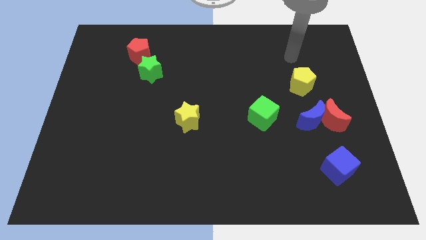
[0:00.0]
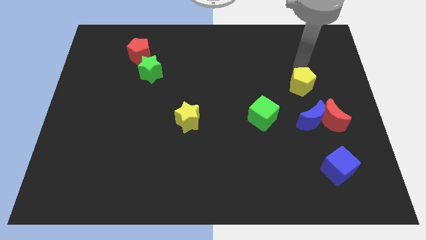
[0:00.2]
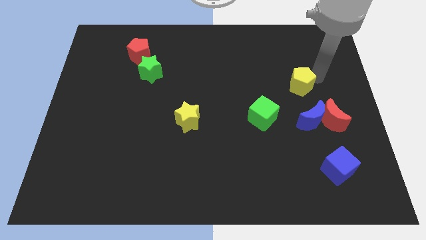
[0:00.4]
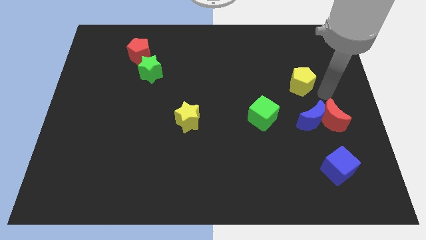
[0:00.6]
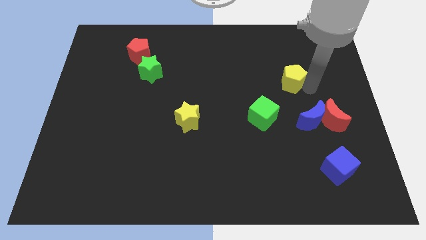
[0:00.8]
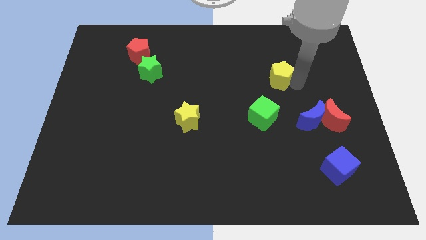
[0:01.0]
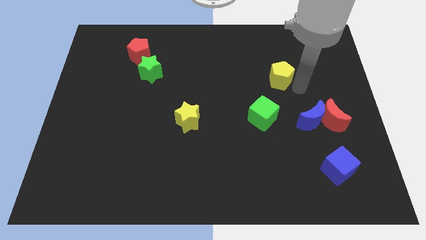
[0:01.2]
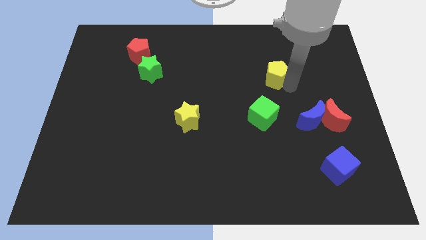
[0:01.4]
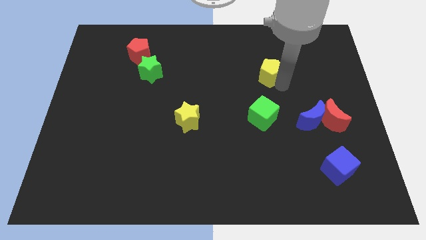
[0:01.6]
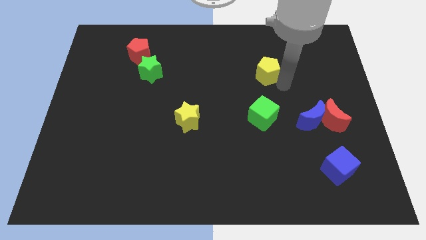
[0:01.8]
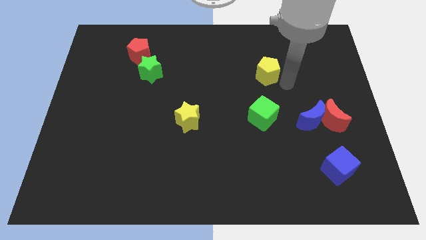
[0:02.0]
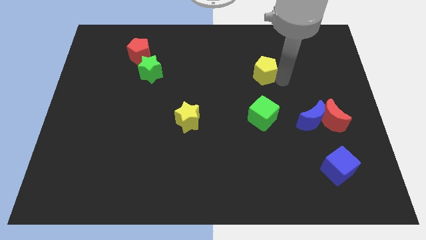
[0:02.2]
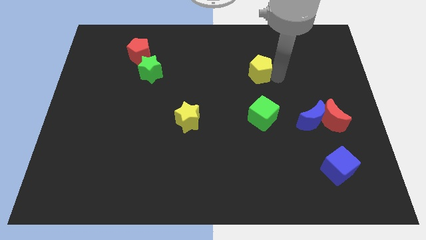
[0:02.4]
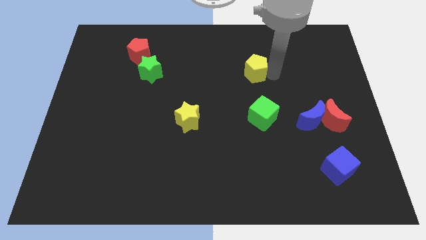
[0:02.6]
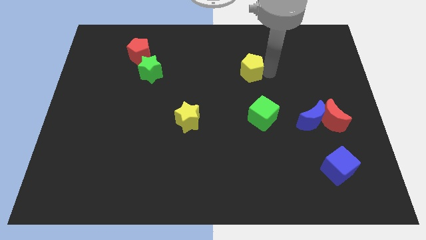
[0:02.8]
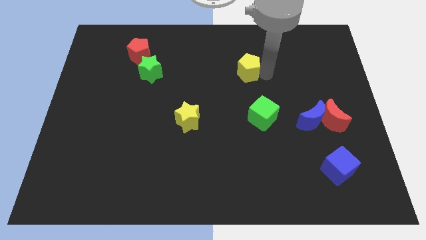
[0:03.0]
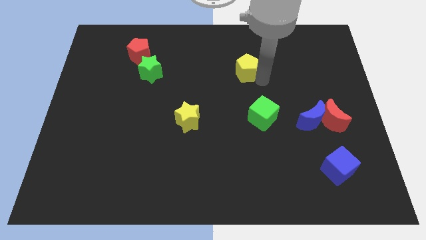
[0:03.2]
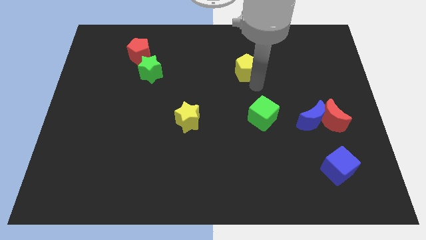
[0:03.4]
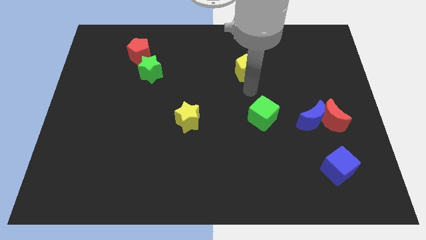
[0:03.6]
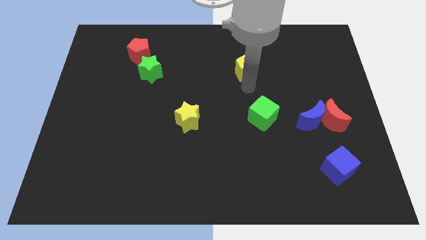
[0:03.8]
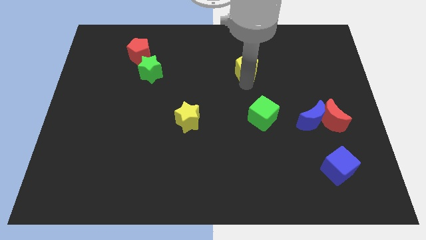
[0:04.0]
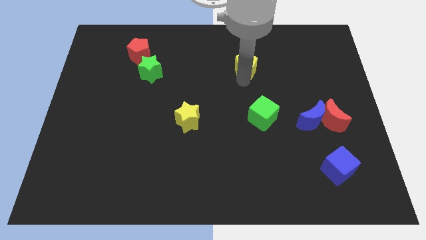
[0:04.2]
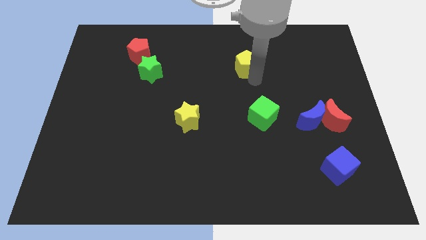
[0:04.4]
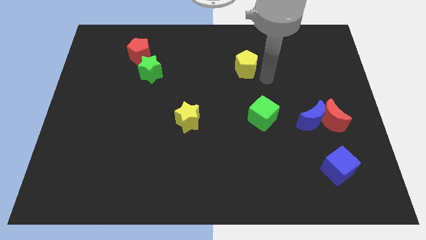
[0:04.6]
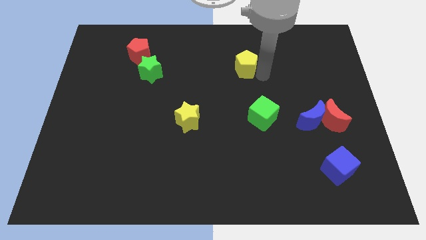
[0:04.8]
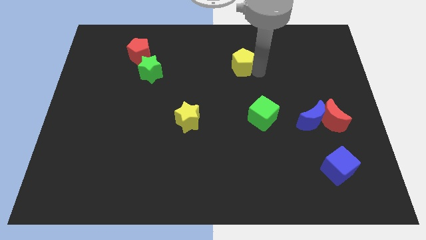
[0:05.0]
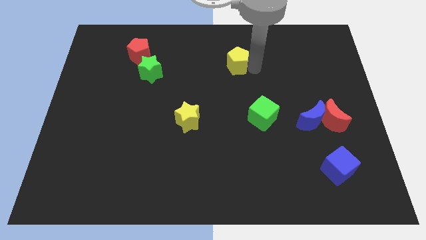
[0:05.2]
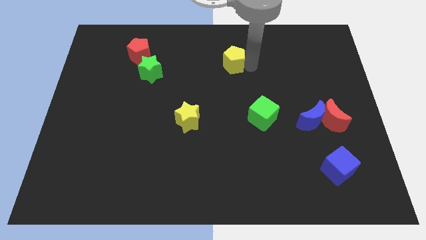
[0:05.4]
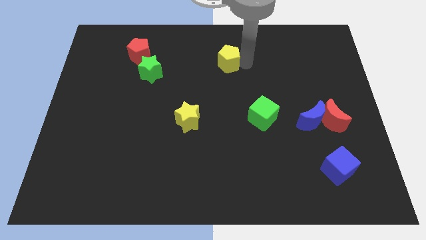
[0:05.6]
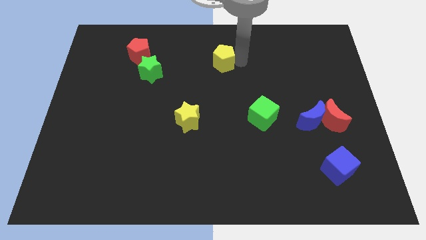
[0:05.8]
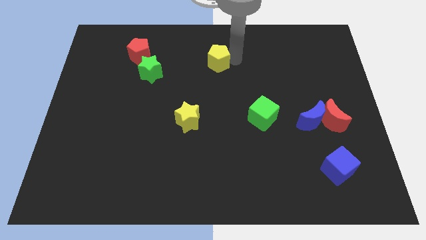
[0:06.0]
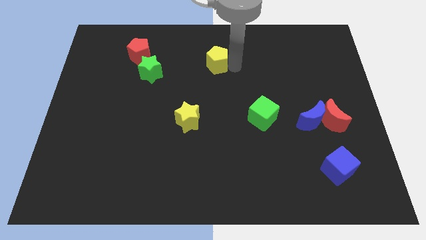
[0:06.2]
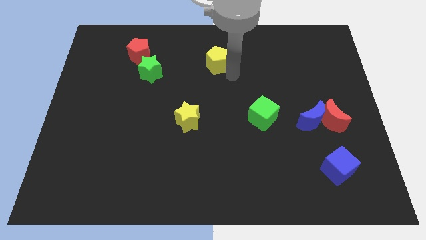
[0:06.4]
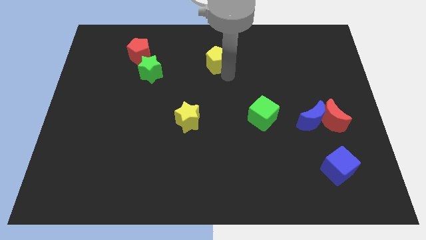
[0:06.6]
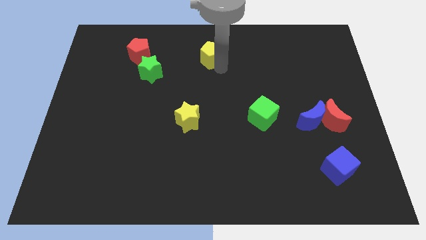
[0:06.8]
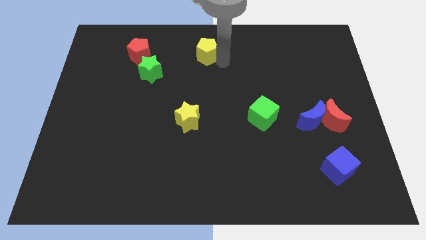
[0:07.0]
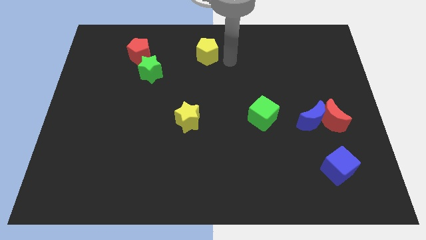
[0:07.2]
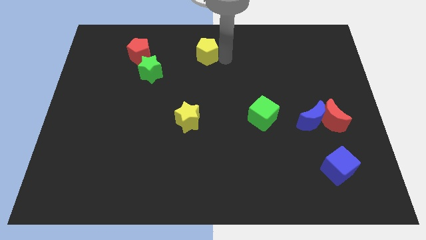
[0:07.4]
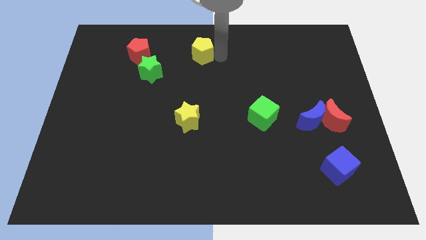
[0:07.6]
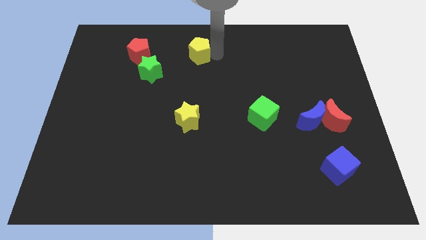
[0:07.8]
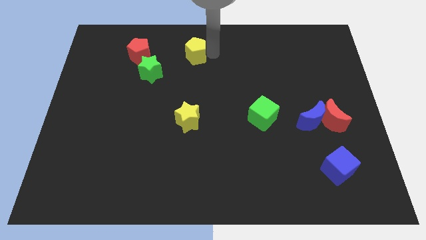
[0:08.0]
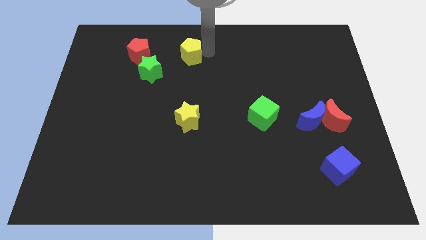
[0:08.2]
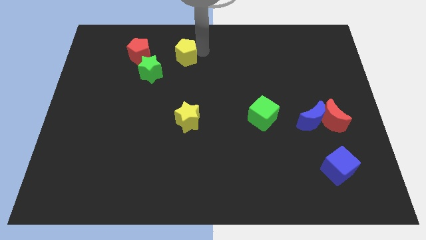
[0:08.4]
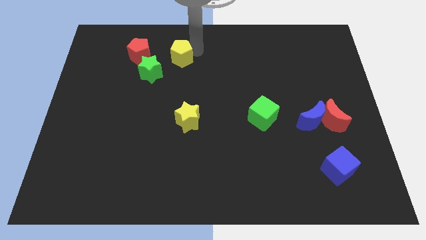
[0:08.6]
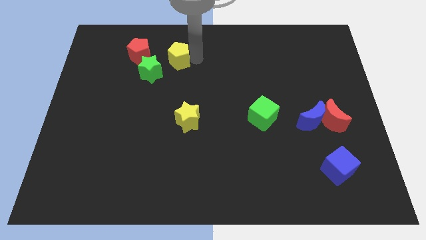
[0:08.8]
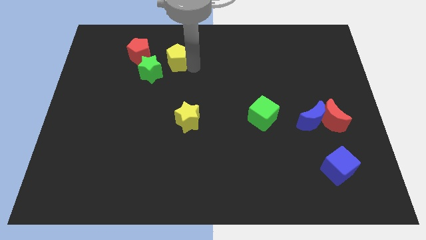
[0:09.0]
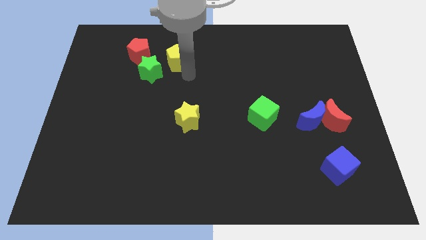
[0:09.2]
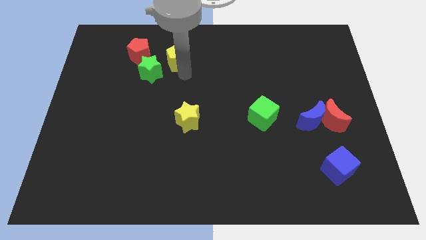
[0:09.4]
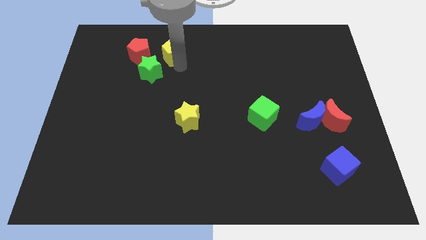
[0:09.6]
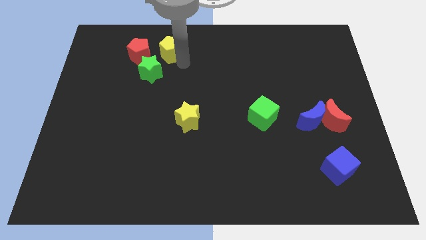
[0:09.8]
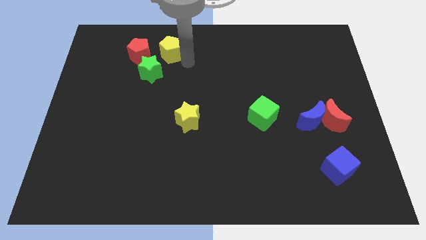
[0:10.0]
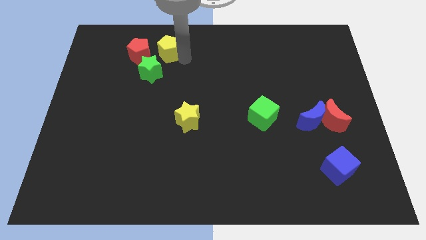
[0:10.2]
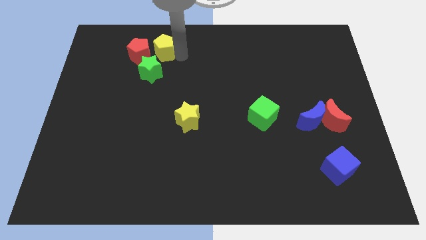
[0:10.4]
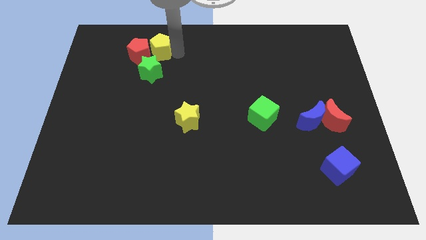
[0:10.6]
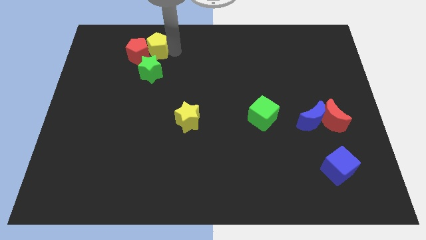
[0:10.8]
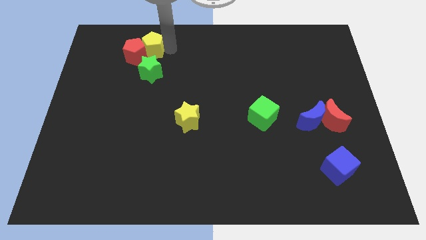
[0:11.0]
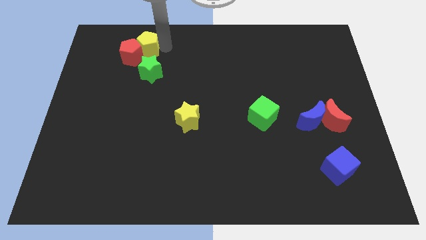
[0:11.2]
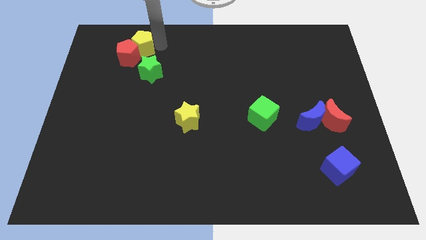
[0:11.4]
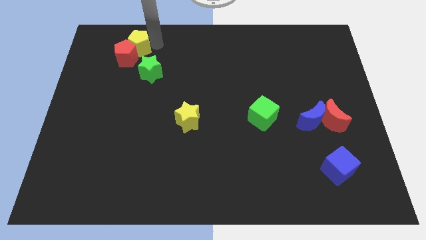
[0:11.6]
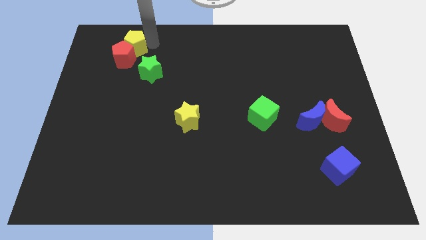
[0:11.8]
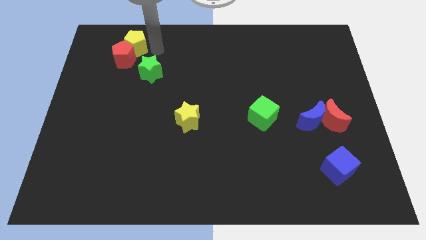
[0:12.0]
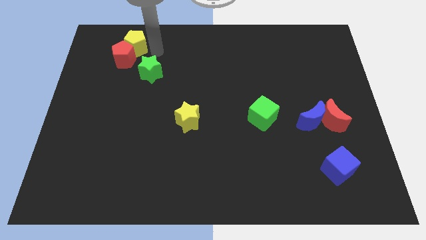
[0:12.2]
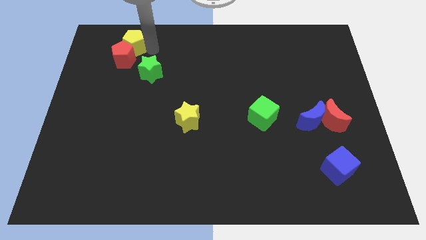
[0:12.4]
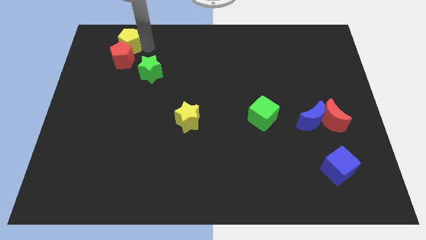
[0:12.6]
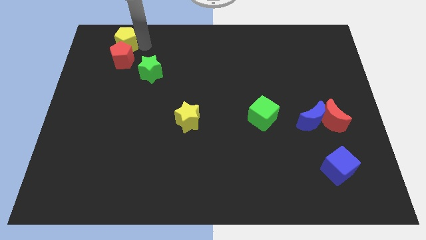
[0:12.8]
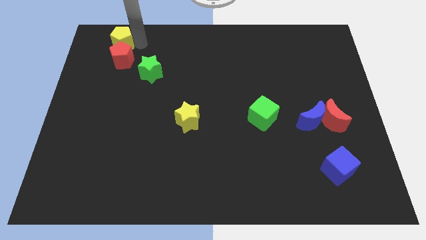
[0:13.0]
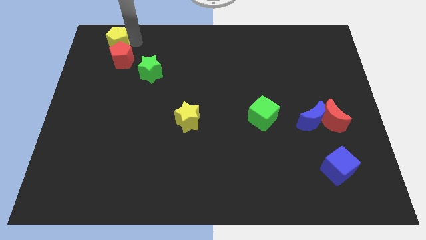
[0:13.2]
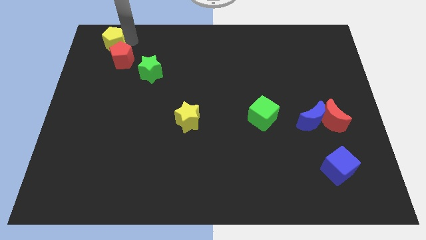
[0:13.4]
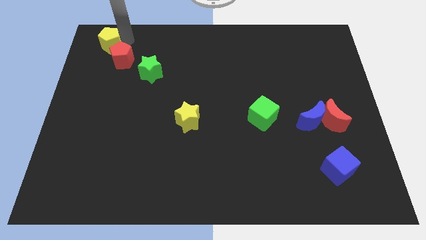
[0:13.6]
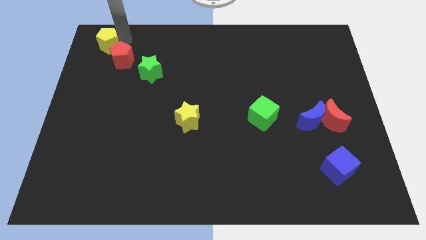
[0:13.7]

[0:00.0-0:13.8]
put the yellow pentagon to the top left corner
